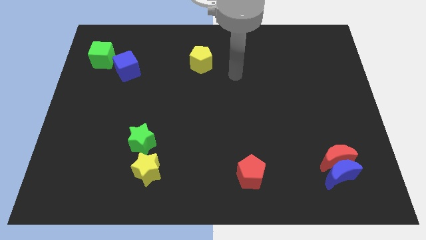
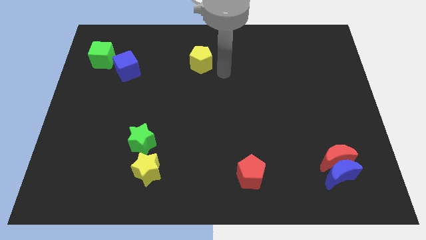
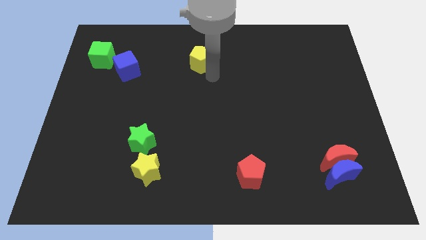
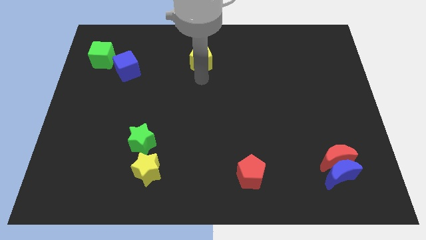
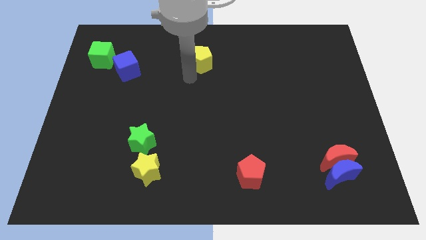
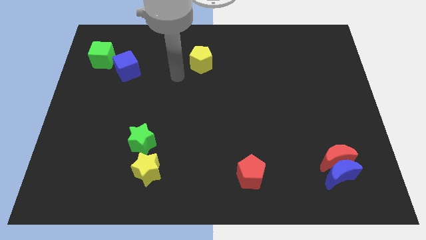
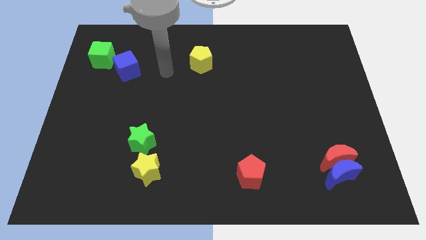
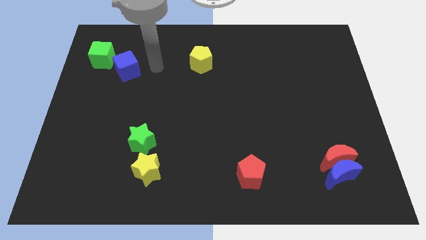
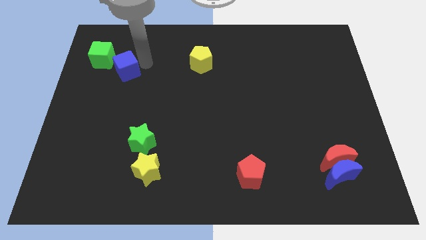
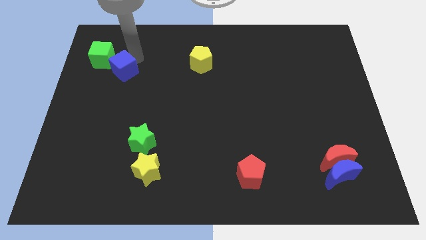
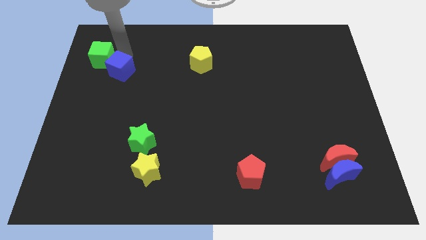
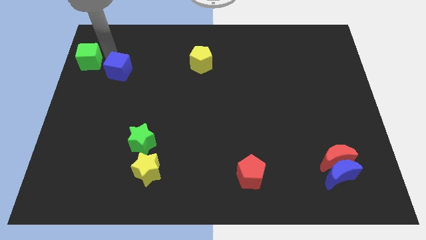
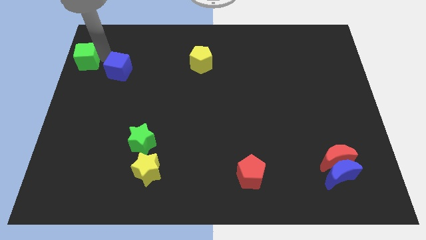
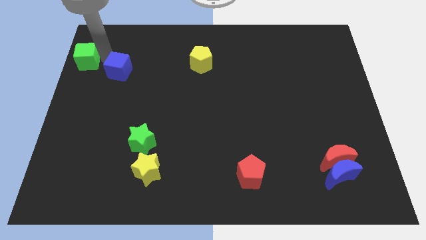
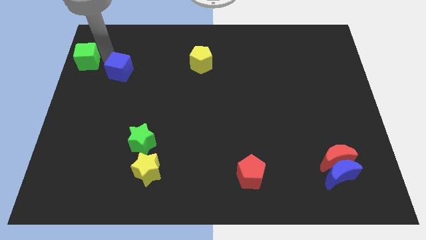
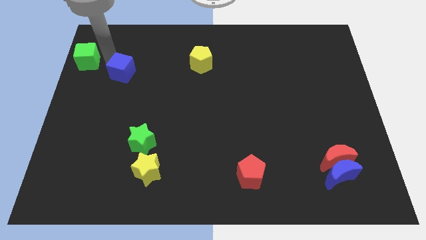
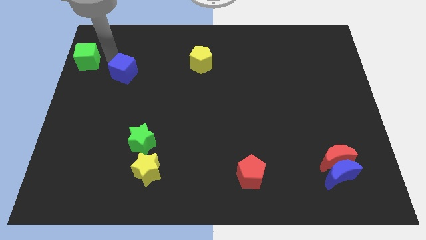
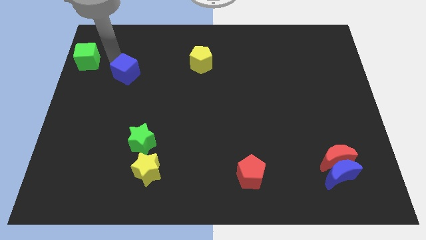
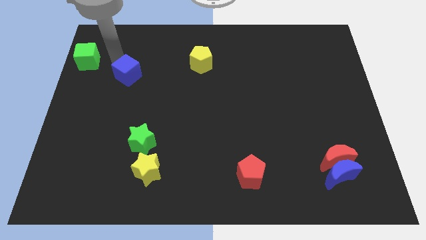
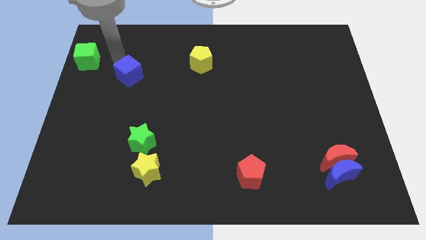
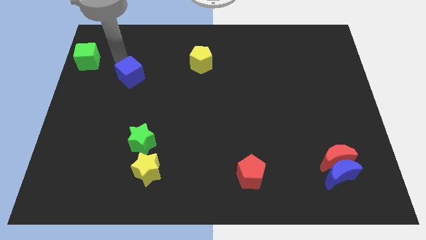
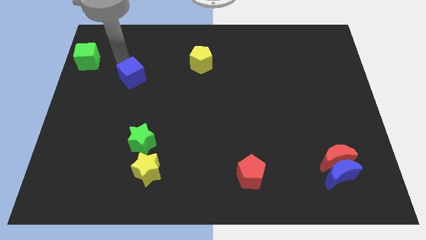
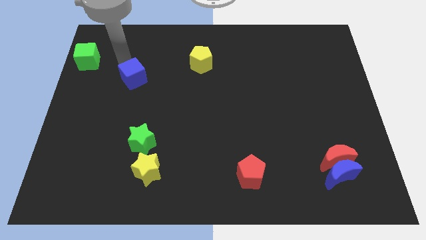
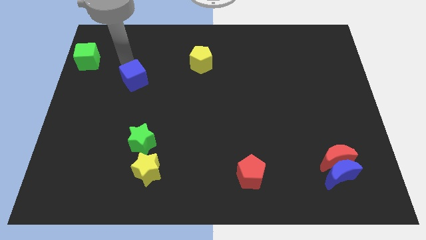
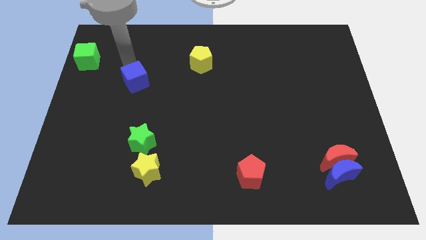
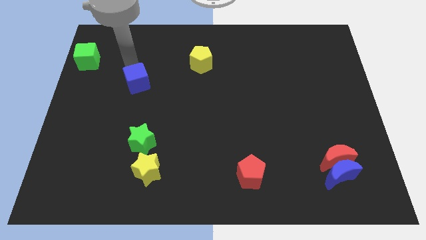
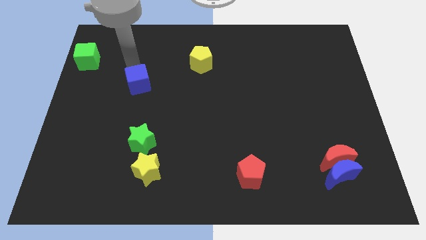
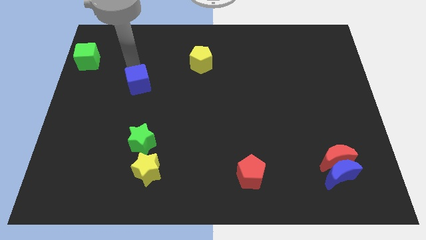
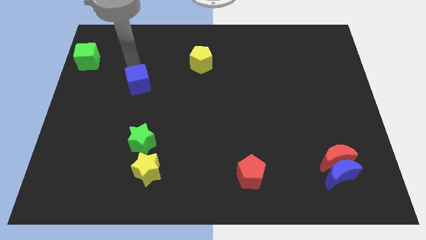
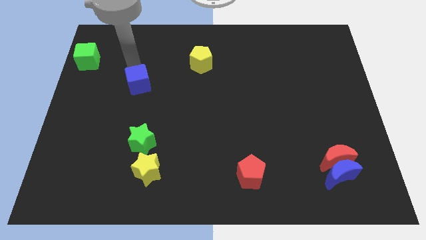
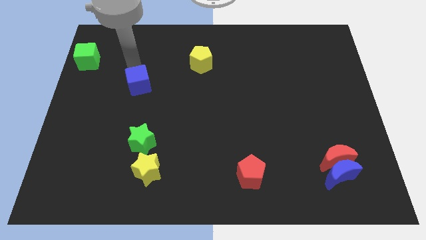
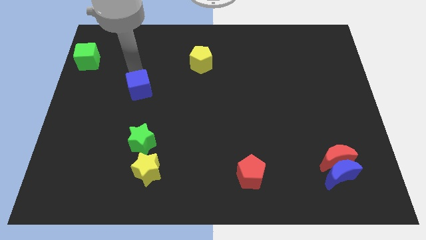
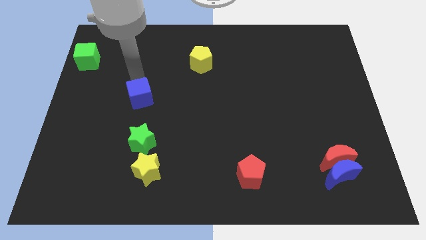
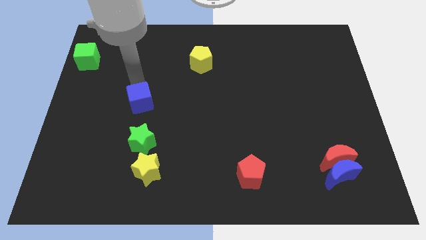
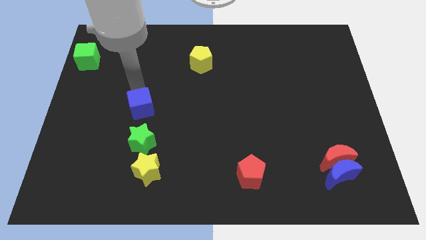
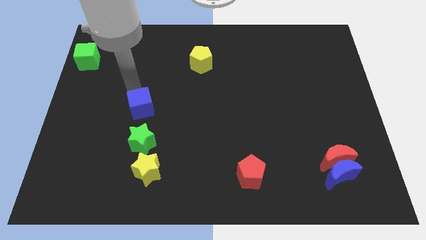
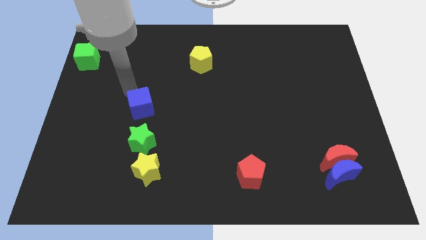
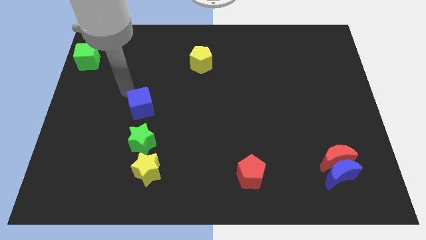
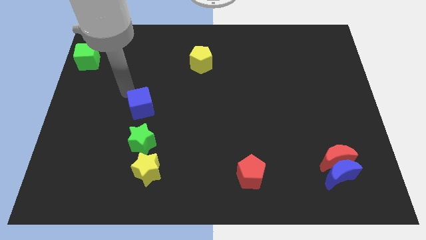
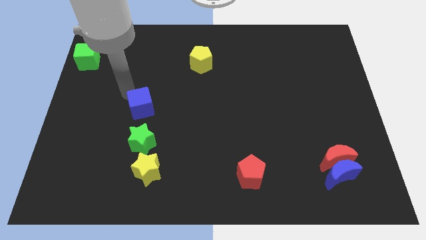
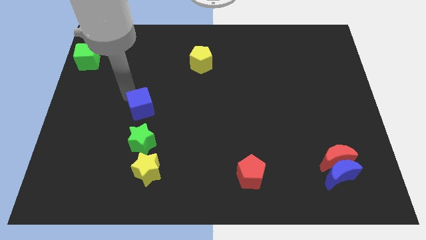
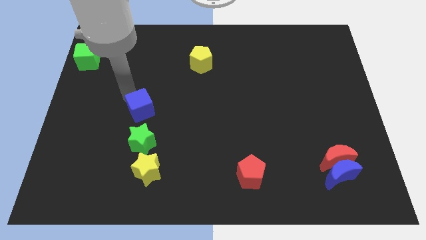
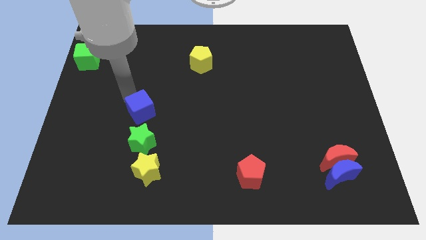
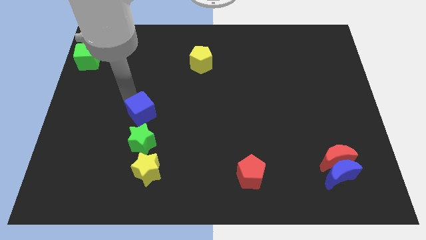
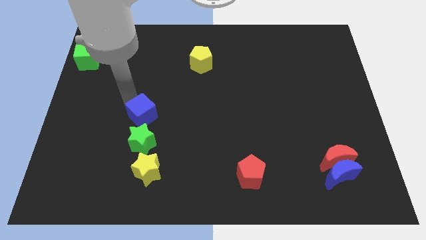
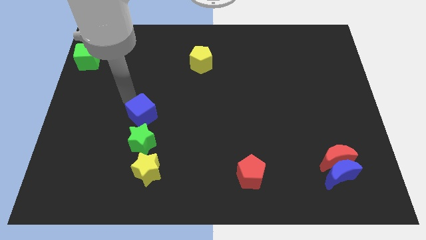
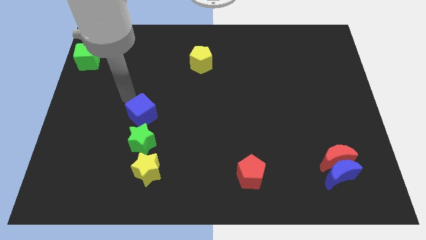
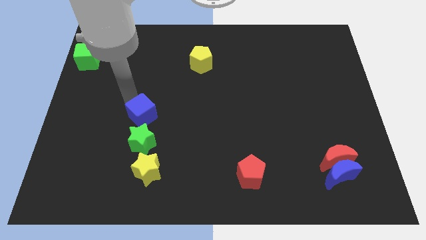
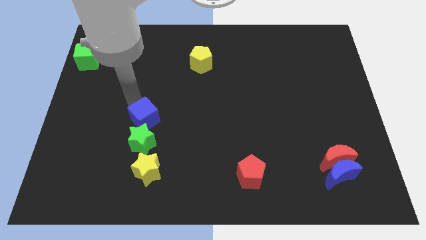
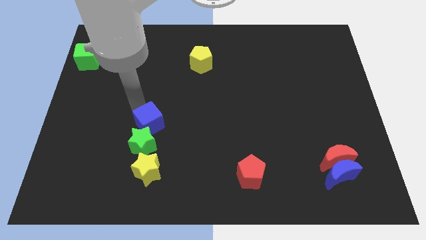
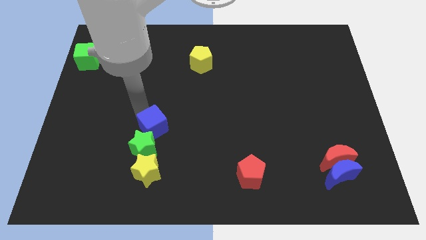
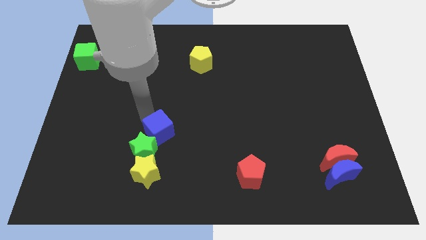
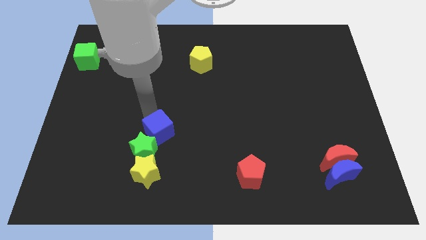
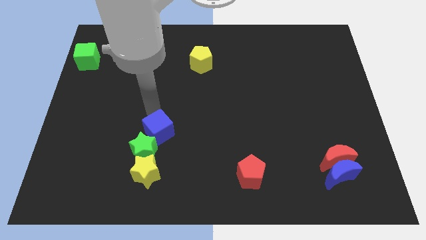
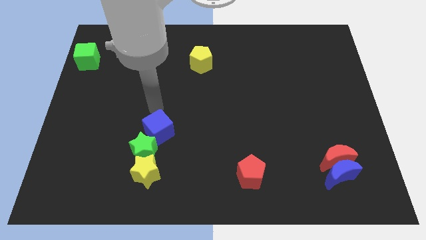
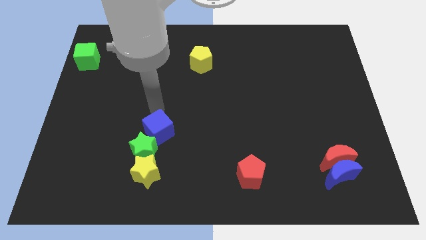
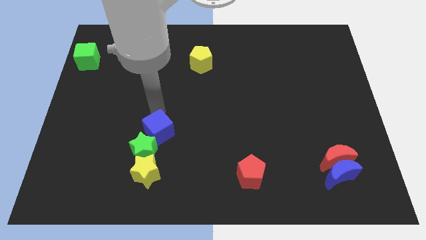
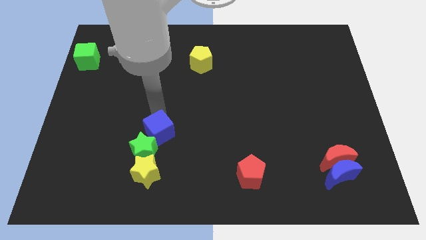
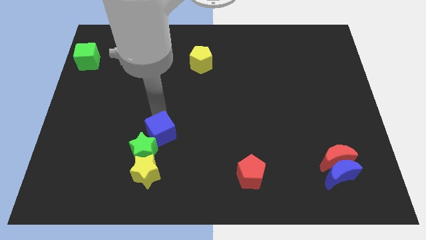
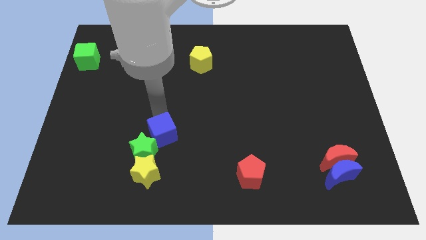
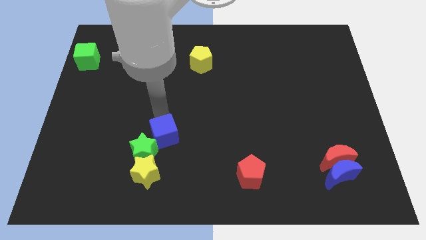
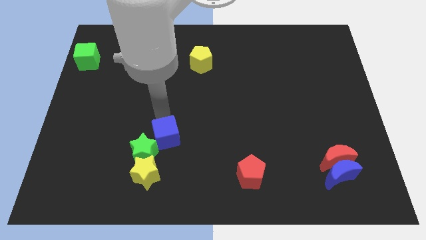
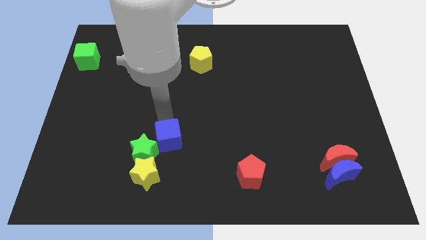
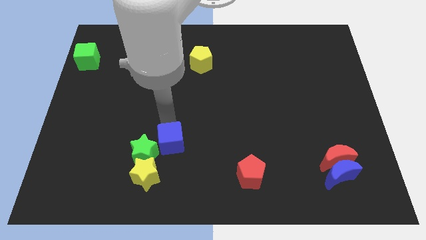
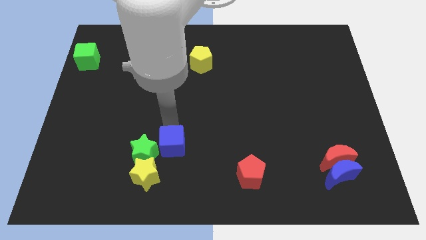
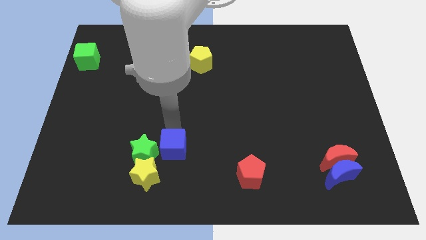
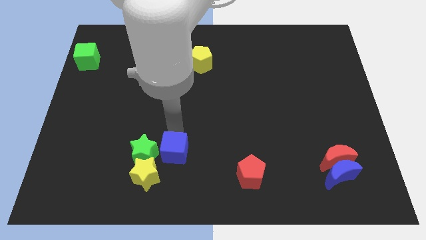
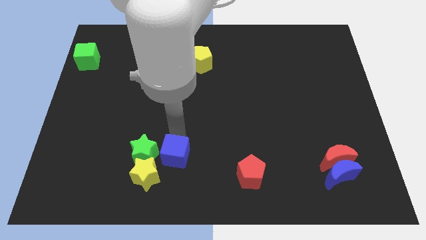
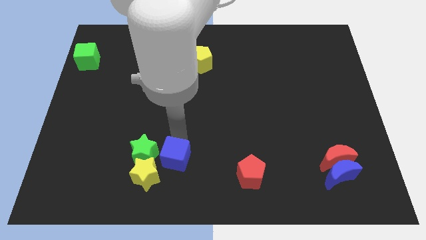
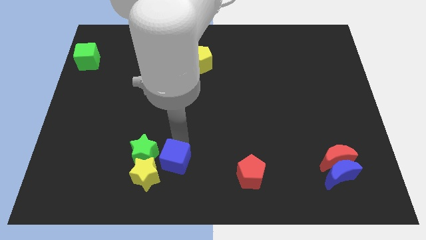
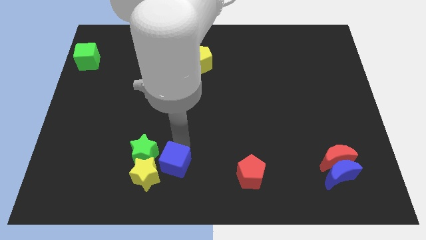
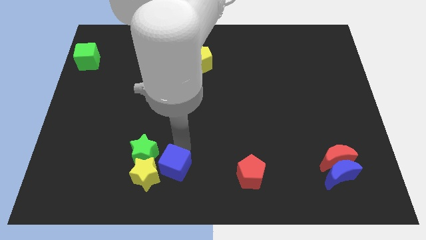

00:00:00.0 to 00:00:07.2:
push the blue cube towards the yellow star

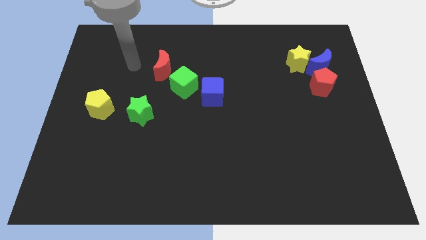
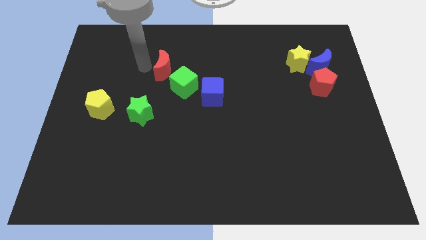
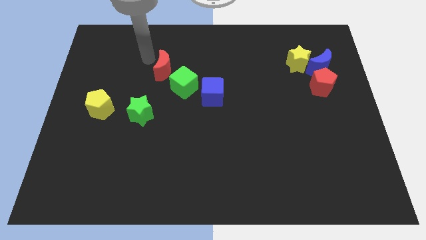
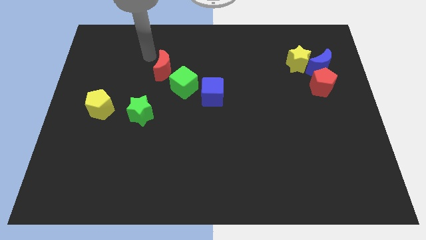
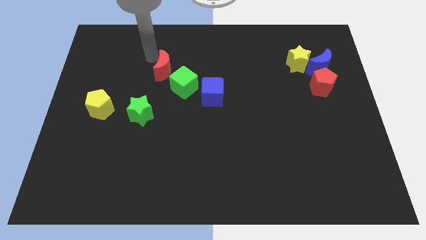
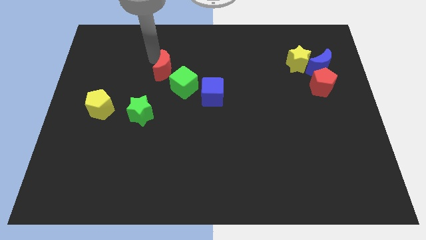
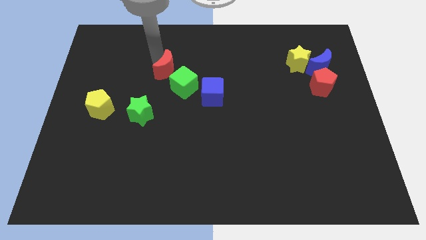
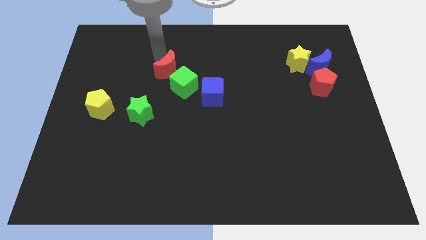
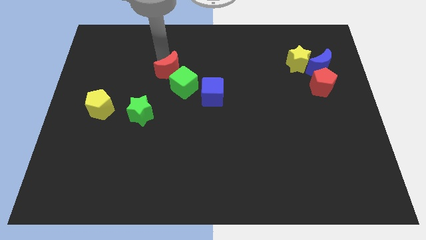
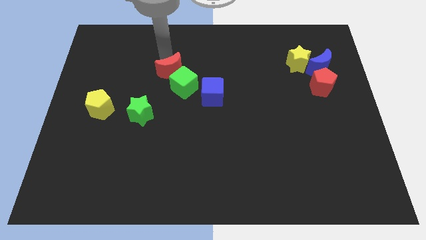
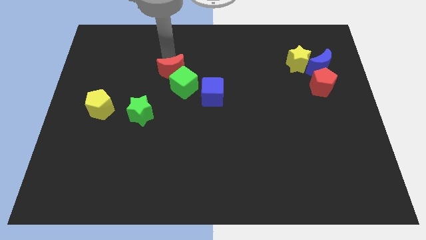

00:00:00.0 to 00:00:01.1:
put the red moon to the green cube
